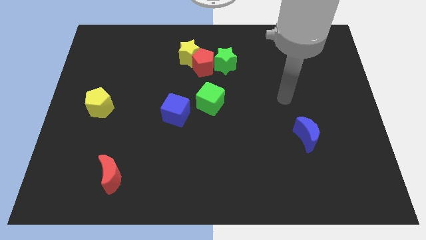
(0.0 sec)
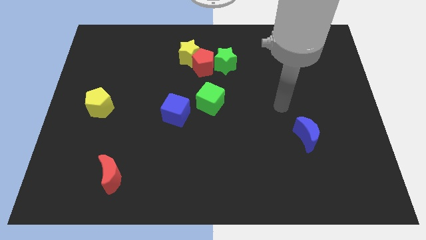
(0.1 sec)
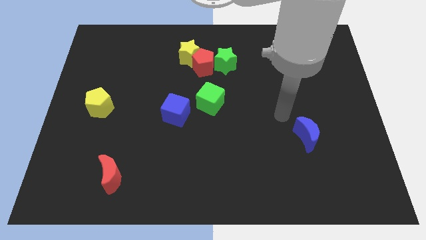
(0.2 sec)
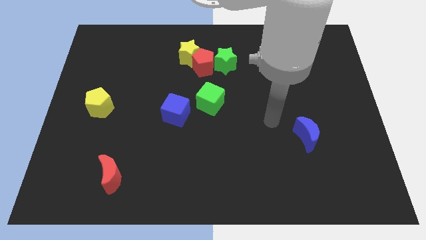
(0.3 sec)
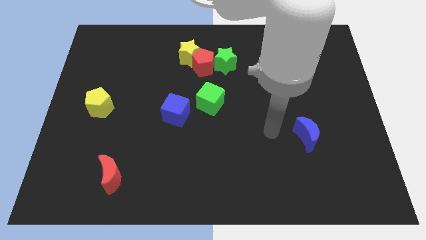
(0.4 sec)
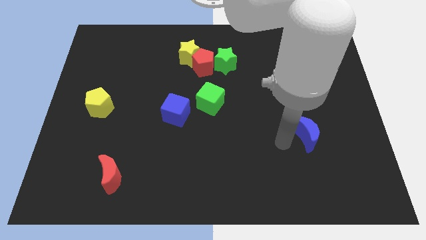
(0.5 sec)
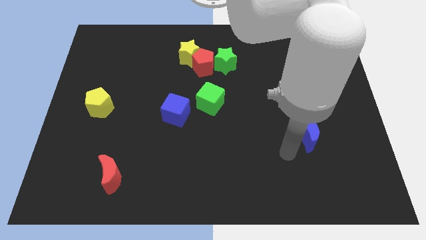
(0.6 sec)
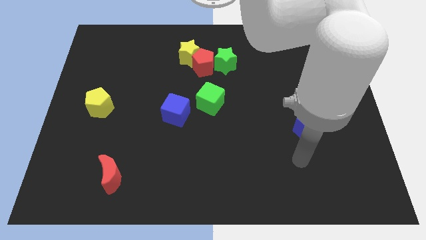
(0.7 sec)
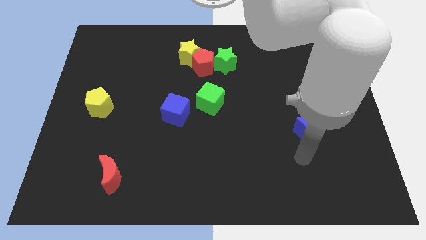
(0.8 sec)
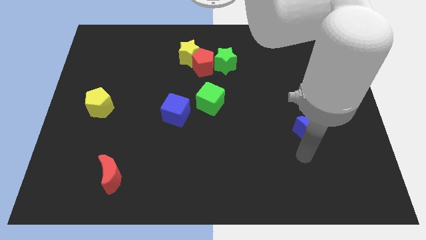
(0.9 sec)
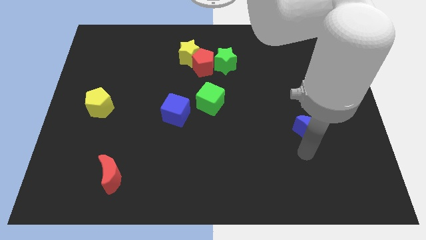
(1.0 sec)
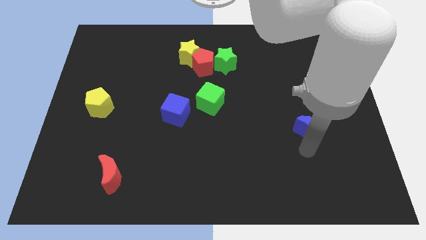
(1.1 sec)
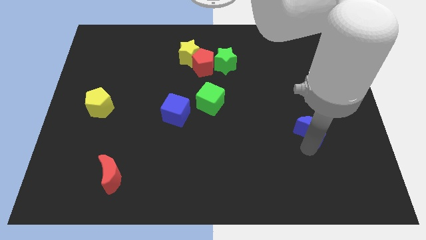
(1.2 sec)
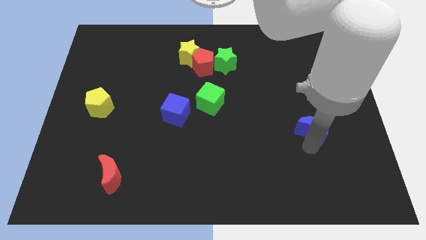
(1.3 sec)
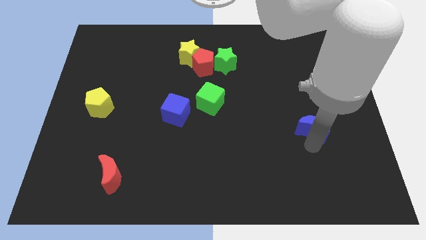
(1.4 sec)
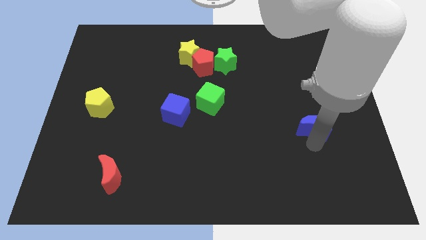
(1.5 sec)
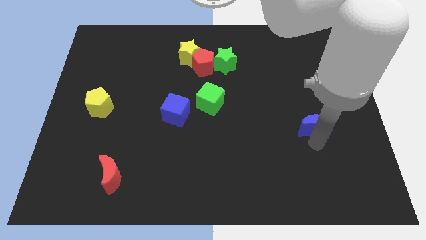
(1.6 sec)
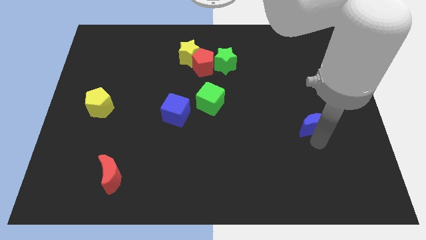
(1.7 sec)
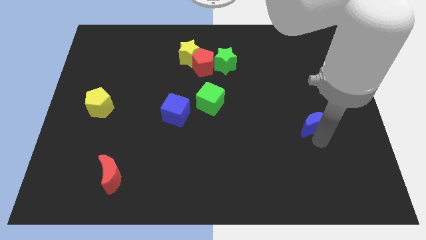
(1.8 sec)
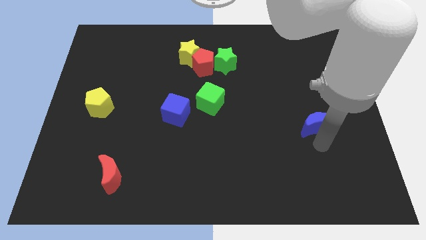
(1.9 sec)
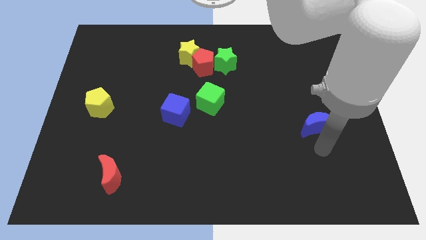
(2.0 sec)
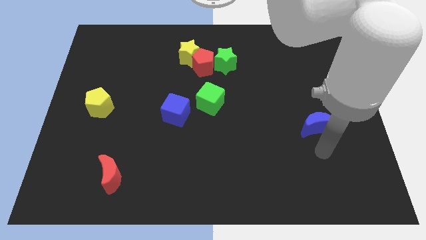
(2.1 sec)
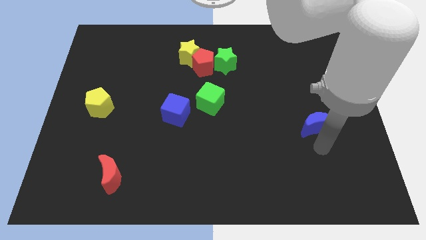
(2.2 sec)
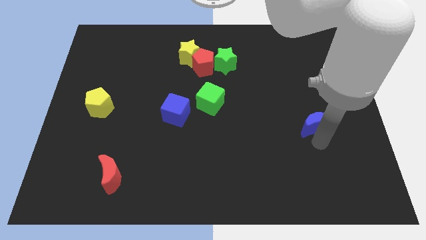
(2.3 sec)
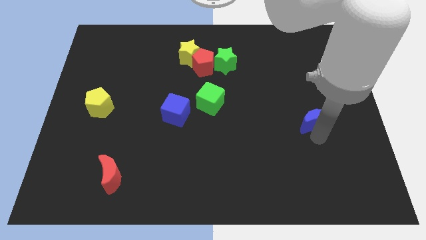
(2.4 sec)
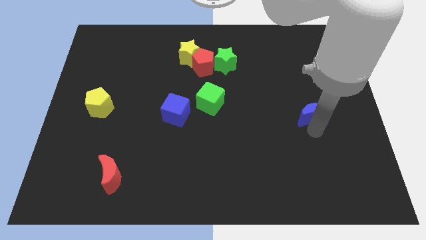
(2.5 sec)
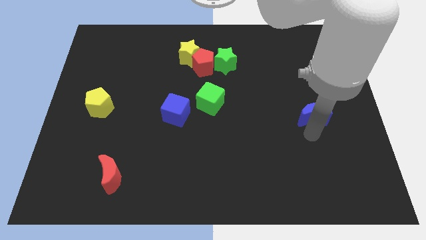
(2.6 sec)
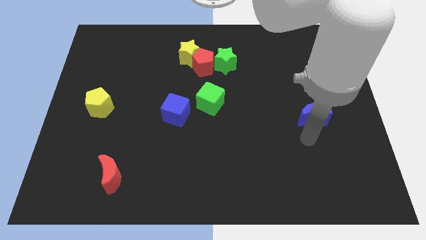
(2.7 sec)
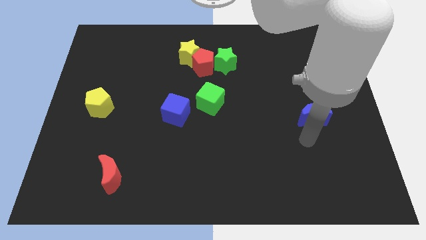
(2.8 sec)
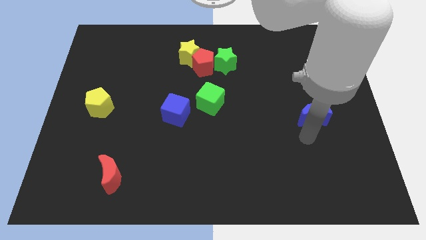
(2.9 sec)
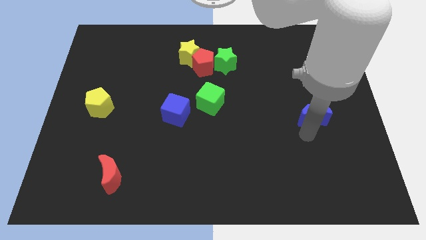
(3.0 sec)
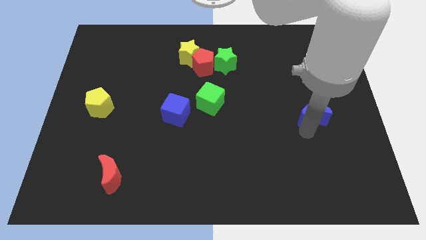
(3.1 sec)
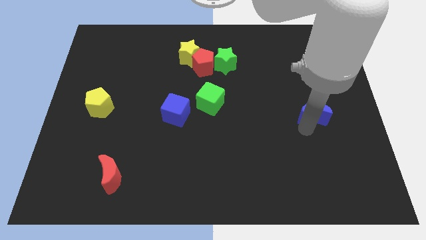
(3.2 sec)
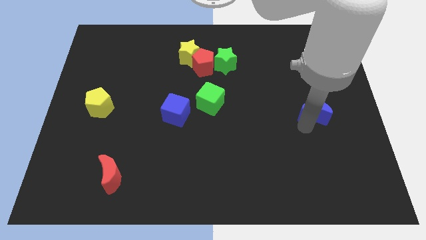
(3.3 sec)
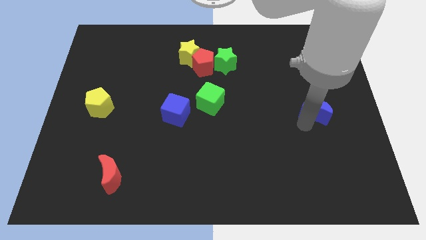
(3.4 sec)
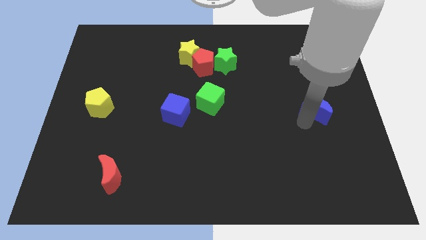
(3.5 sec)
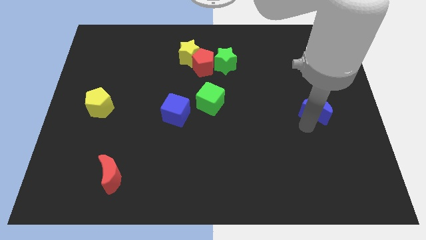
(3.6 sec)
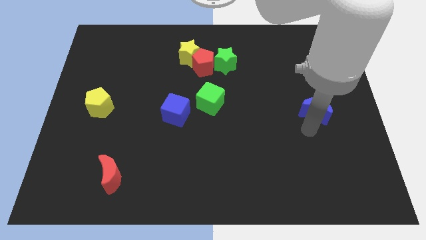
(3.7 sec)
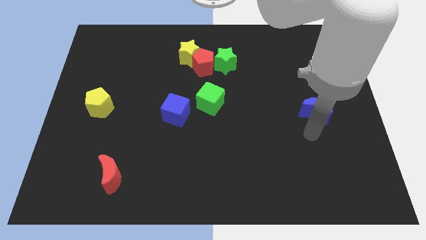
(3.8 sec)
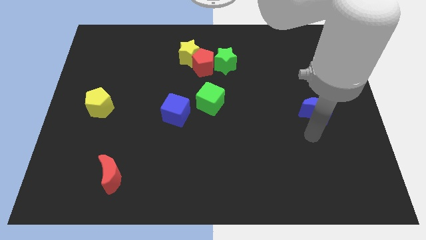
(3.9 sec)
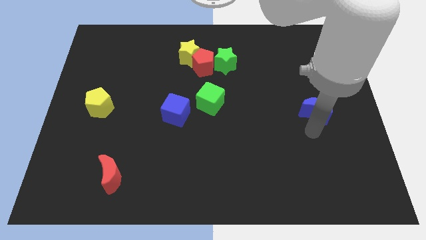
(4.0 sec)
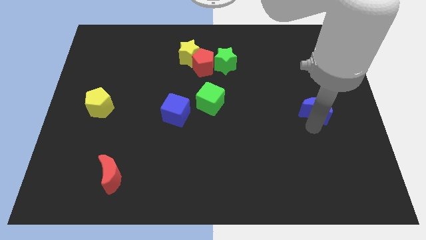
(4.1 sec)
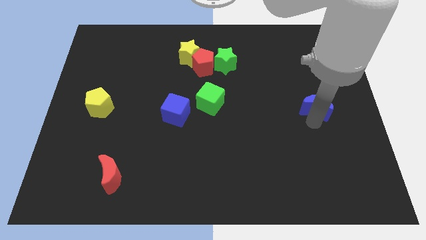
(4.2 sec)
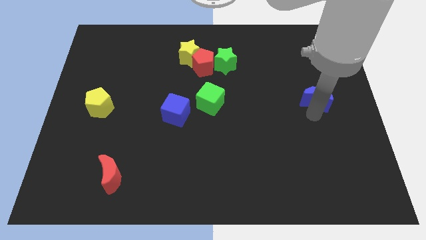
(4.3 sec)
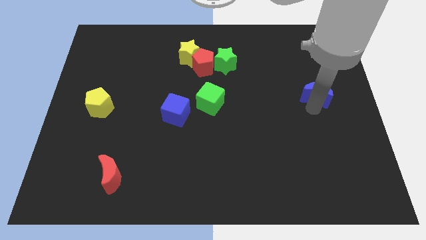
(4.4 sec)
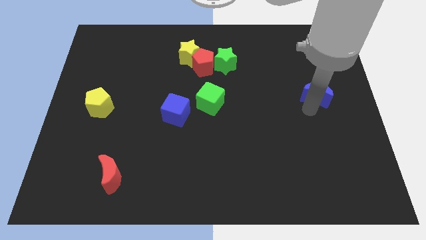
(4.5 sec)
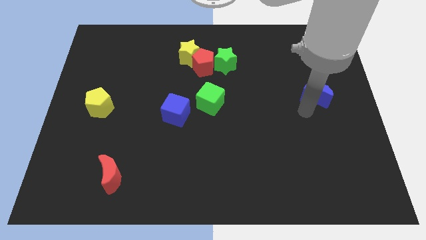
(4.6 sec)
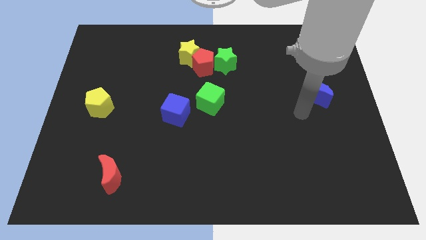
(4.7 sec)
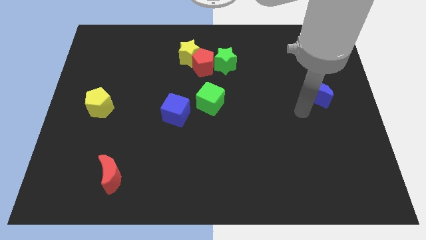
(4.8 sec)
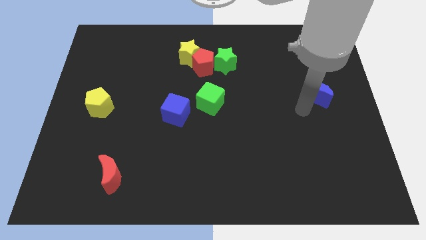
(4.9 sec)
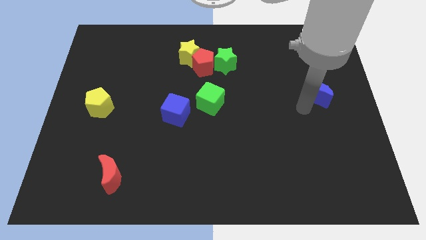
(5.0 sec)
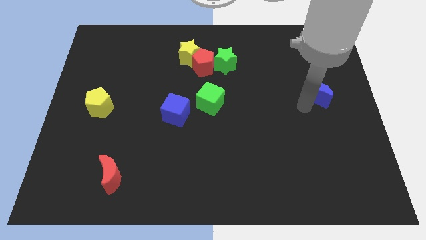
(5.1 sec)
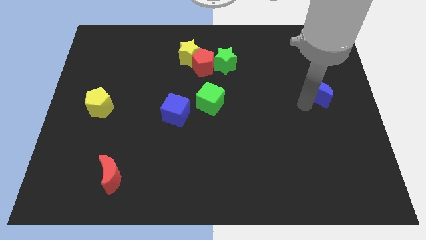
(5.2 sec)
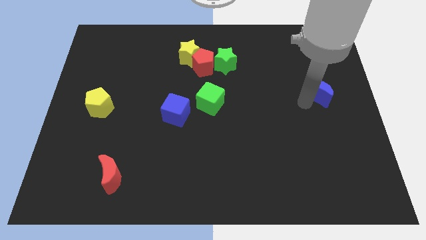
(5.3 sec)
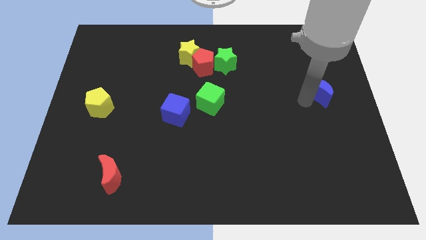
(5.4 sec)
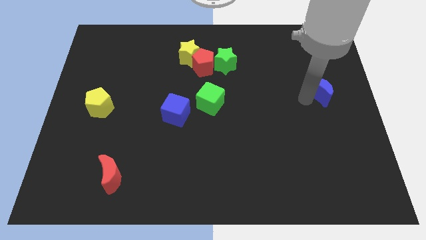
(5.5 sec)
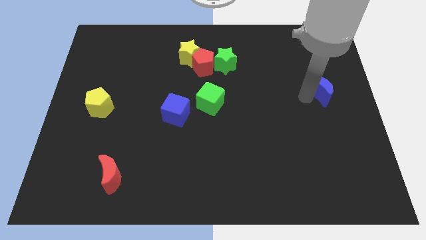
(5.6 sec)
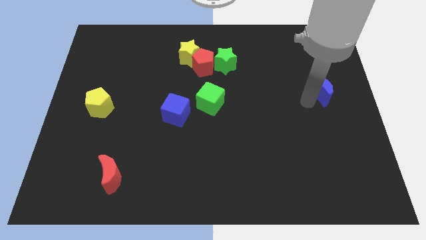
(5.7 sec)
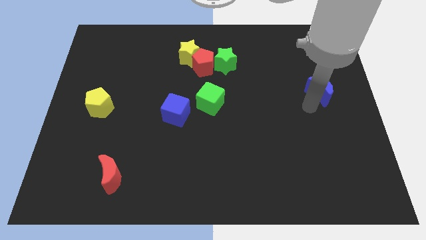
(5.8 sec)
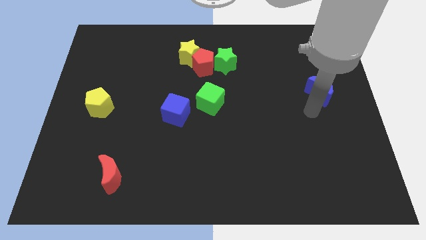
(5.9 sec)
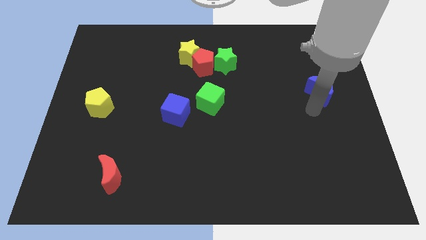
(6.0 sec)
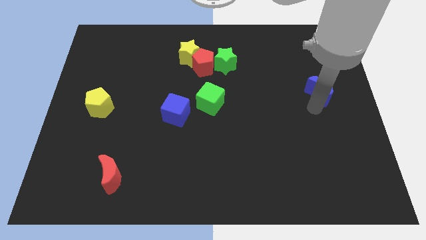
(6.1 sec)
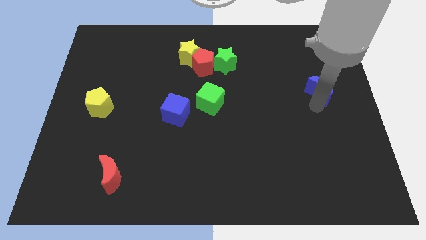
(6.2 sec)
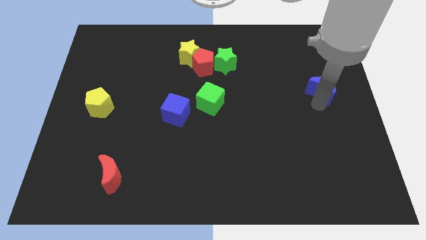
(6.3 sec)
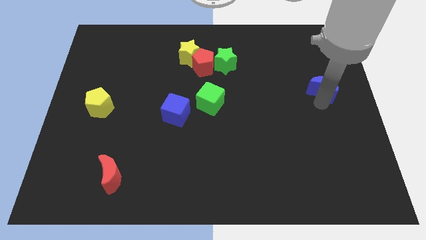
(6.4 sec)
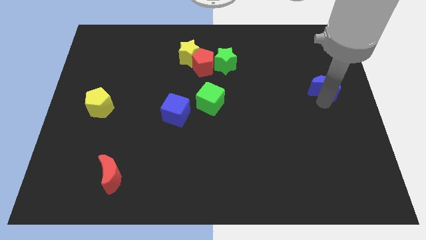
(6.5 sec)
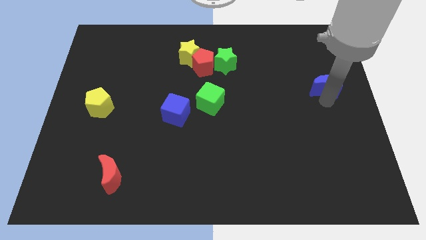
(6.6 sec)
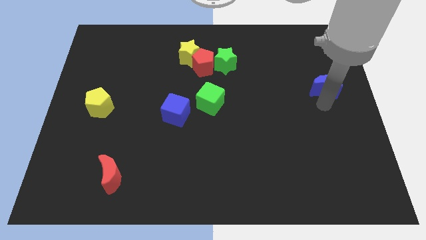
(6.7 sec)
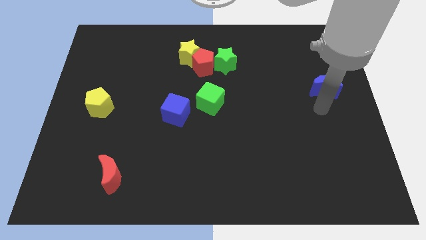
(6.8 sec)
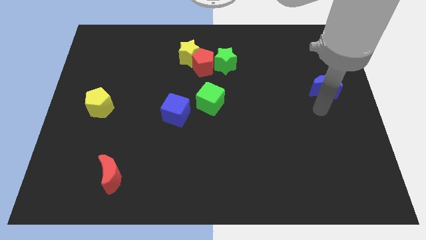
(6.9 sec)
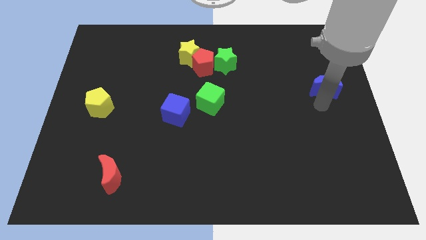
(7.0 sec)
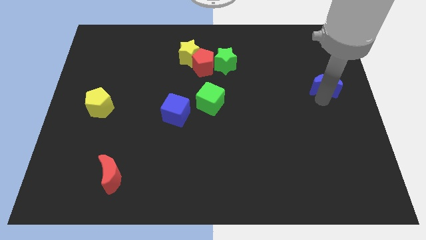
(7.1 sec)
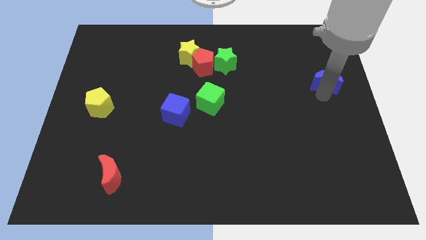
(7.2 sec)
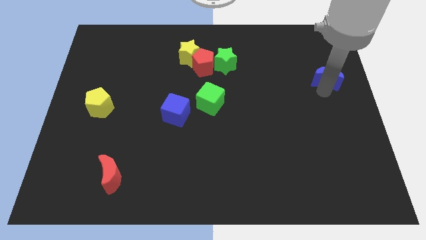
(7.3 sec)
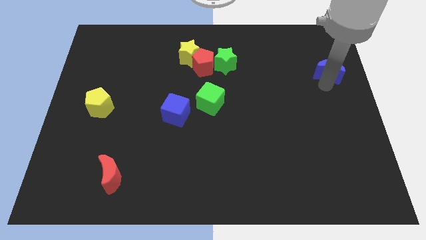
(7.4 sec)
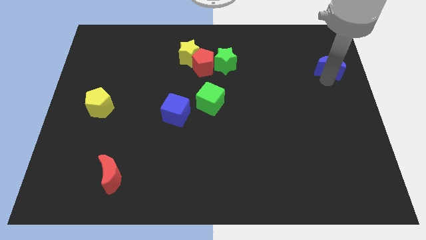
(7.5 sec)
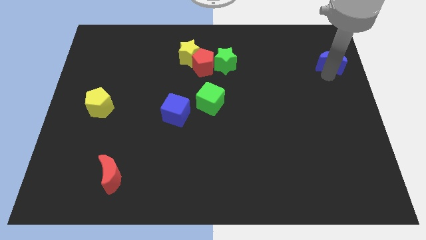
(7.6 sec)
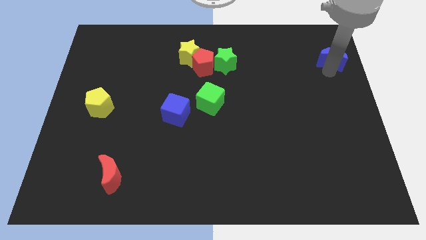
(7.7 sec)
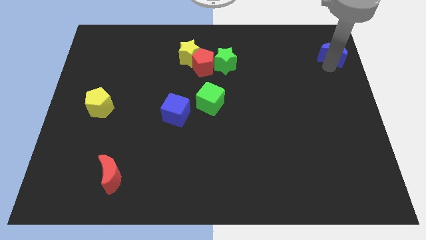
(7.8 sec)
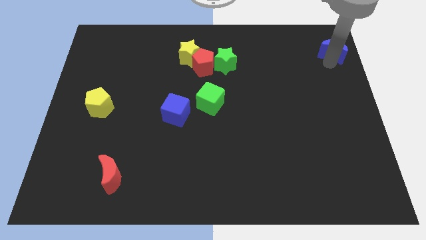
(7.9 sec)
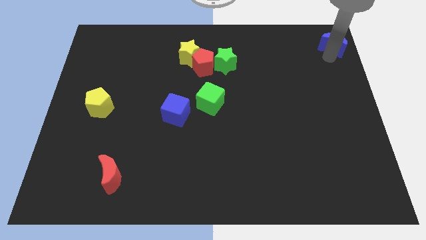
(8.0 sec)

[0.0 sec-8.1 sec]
slide the blue moon to the top right
